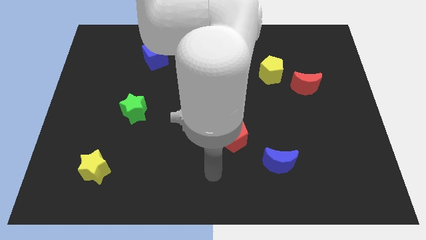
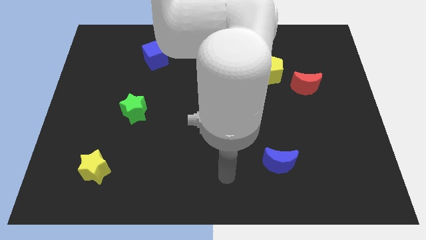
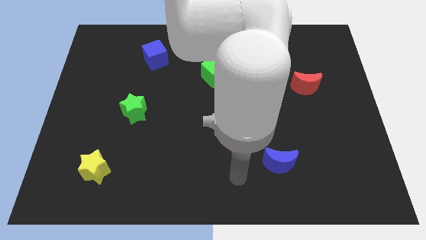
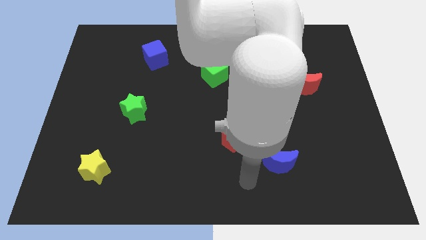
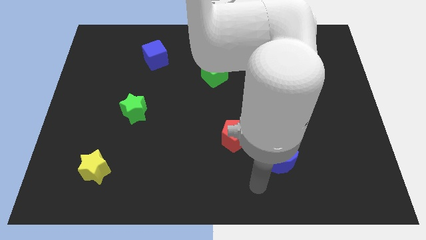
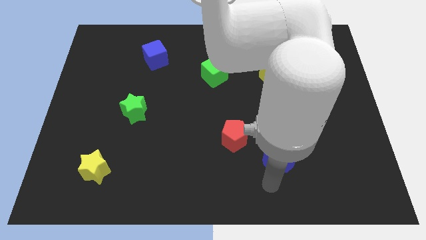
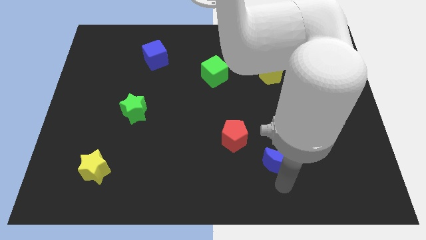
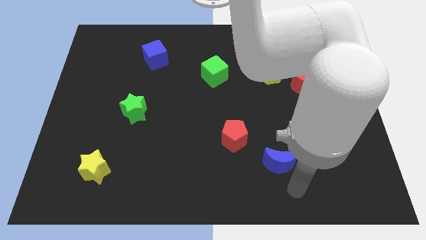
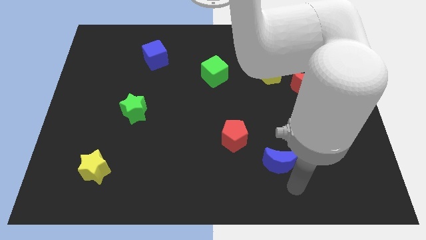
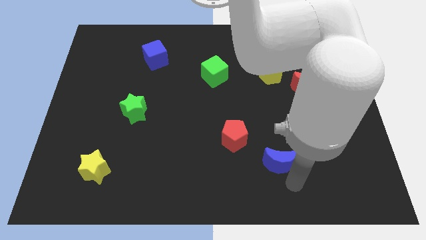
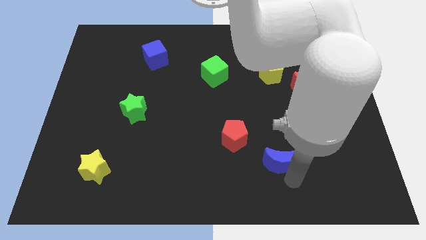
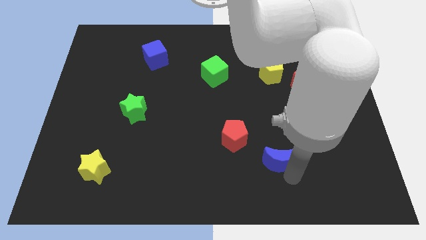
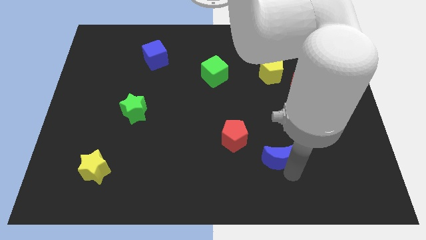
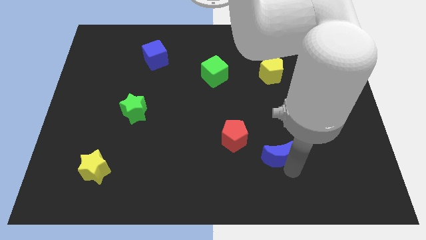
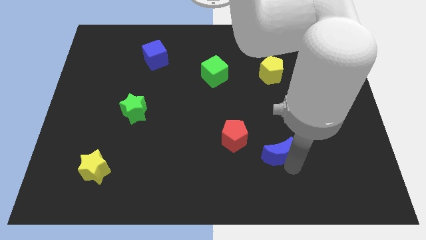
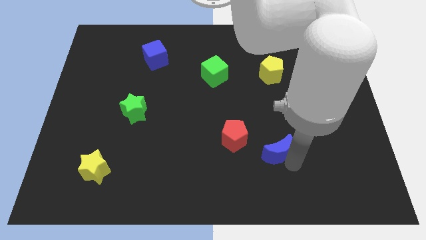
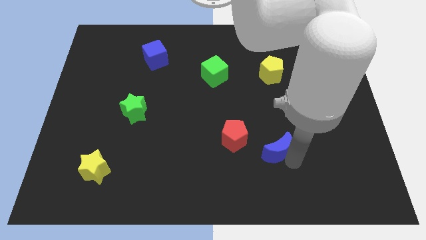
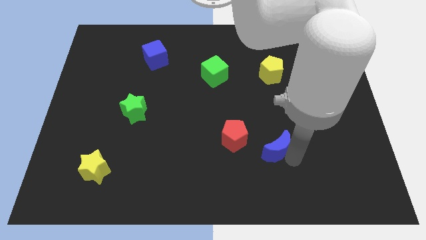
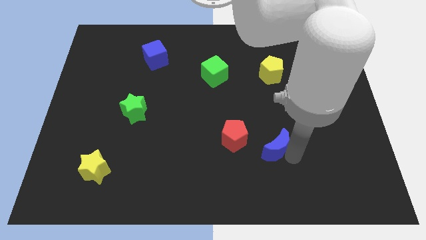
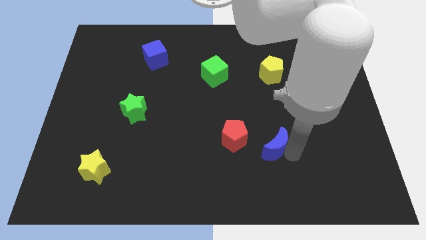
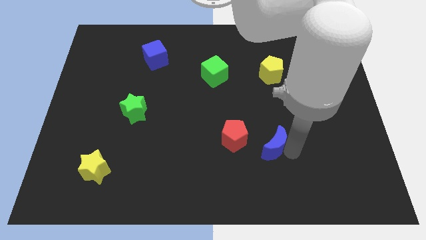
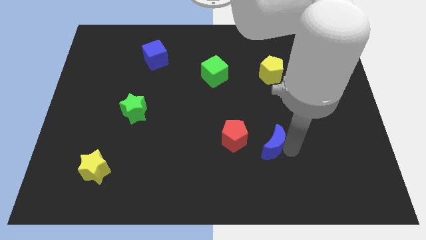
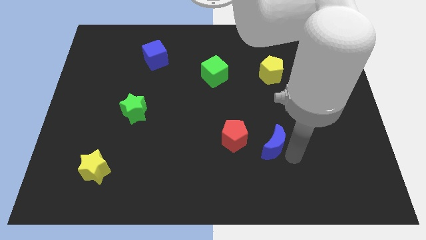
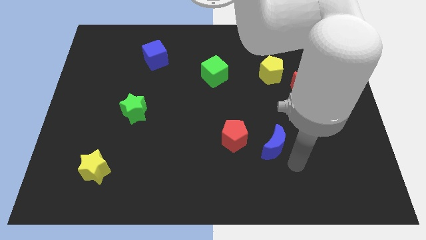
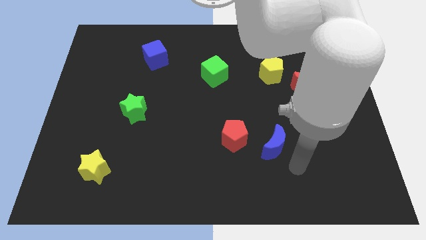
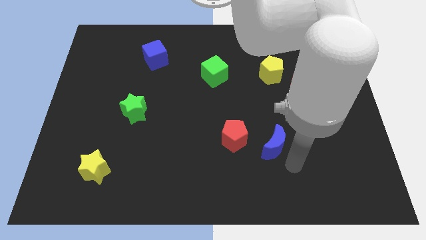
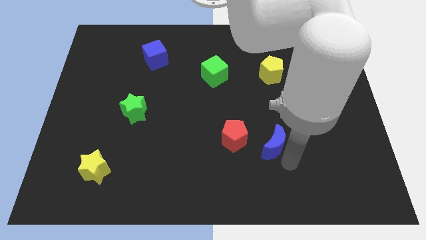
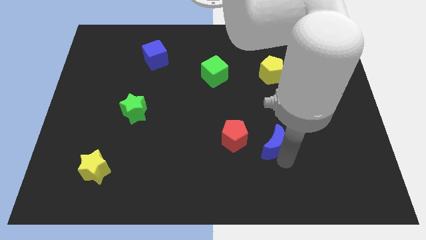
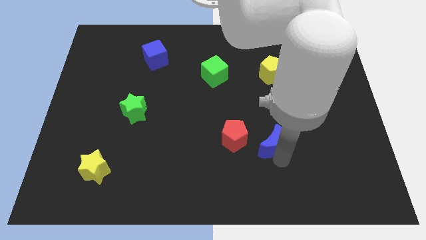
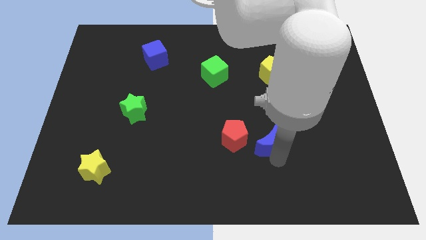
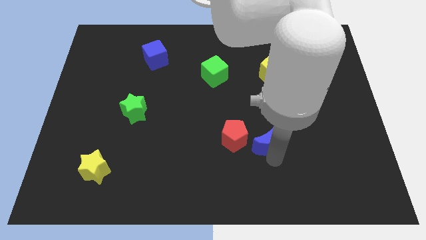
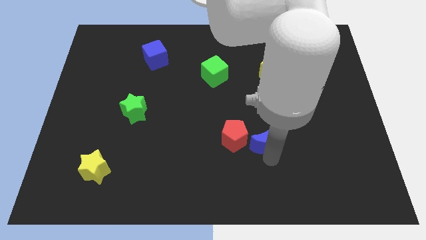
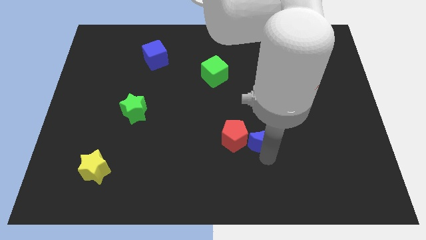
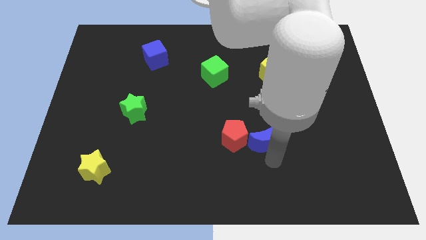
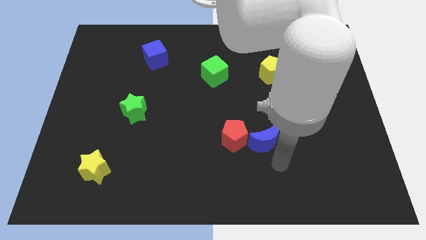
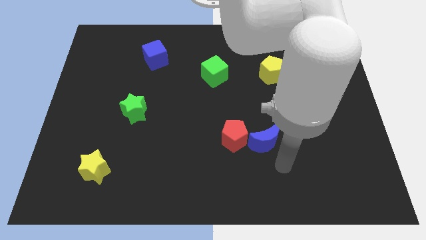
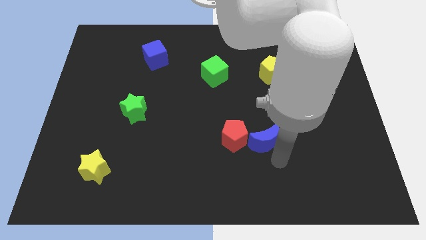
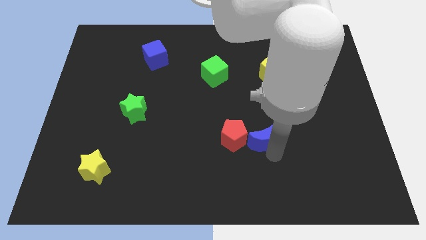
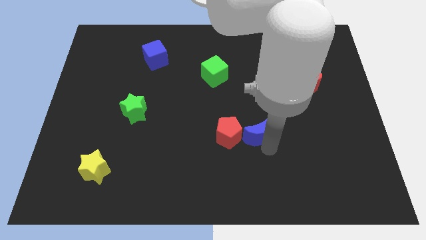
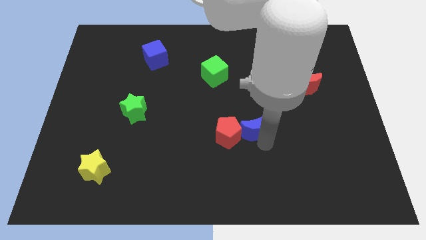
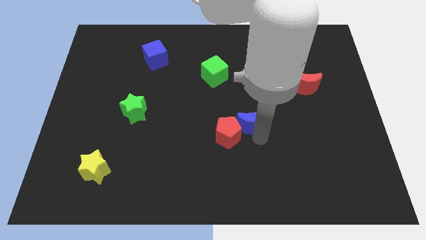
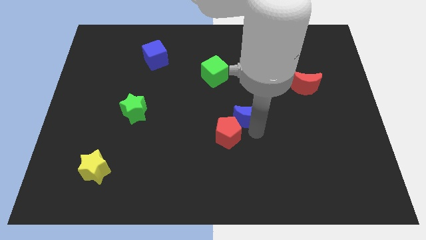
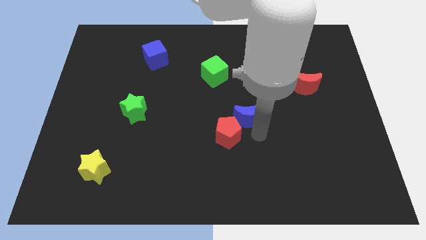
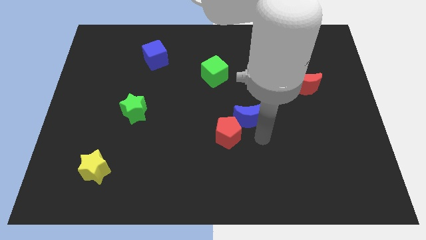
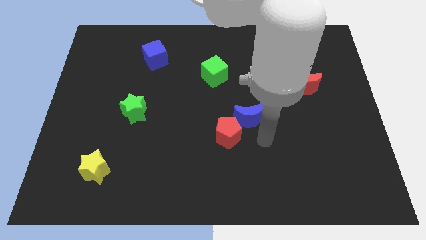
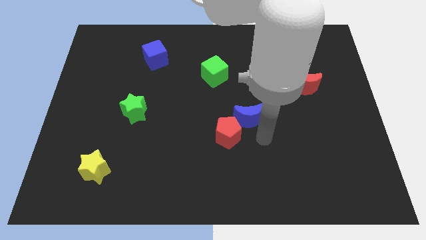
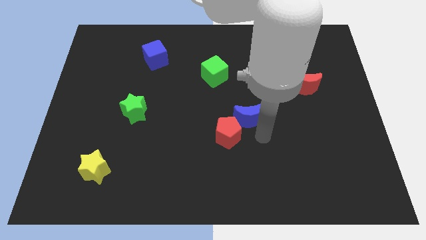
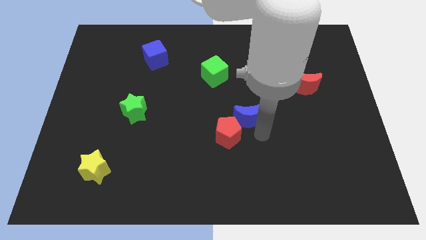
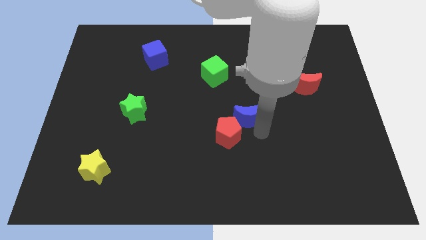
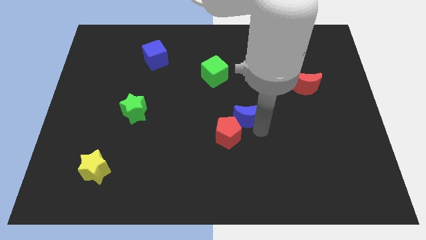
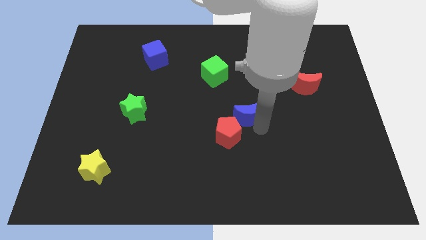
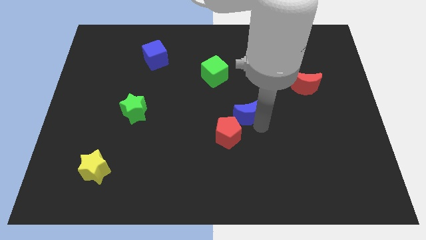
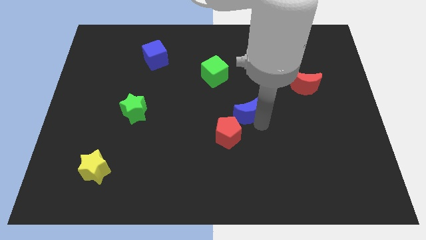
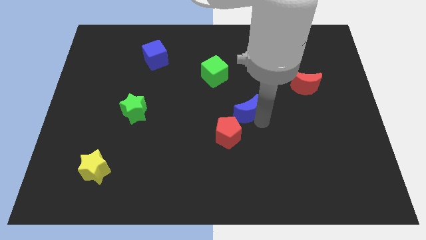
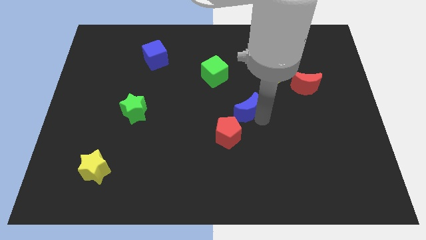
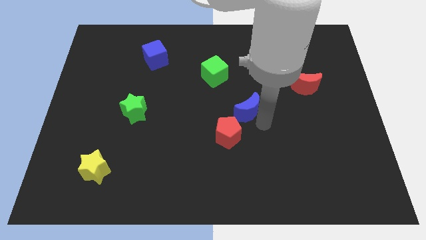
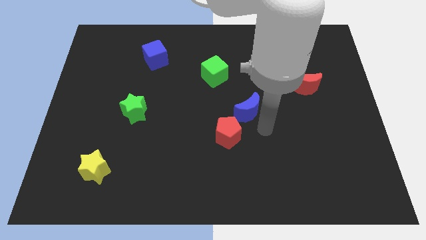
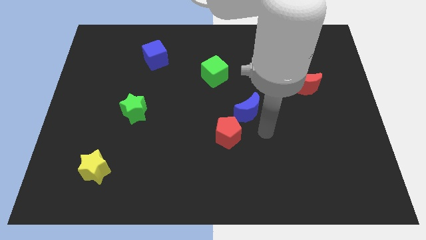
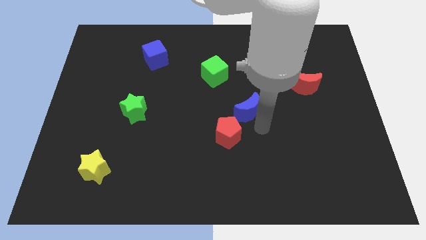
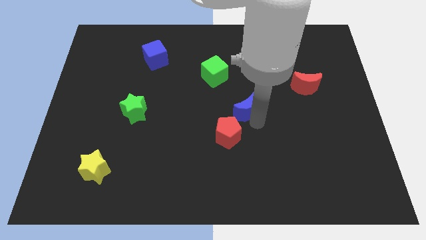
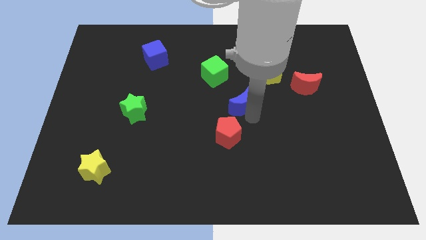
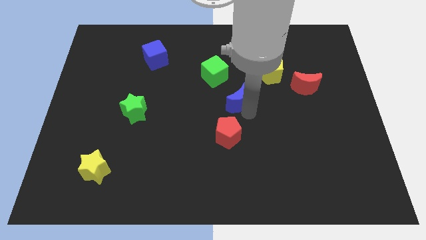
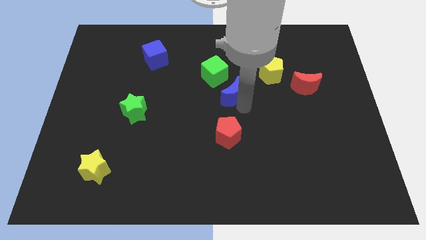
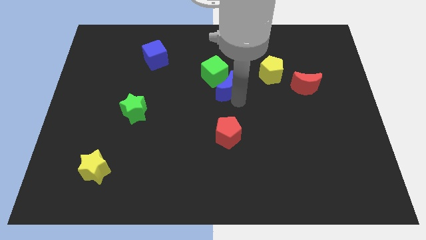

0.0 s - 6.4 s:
push the blue moon to the green cube

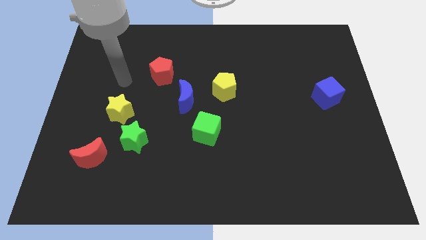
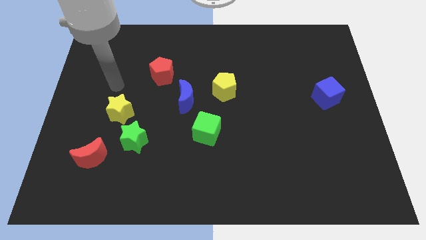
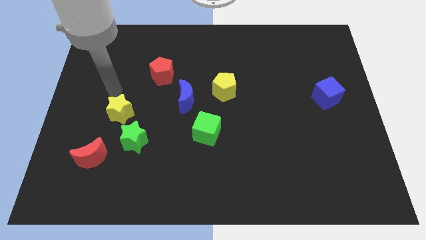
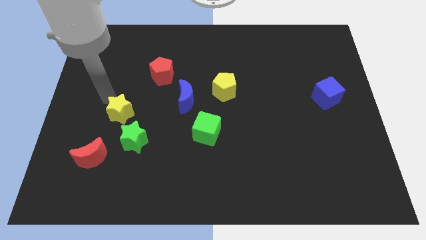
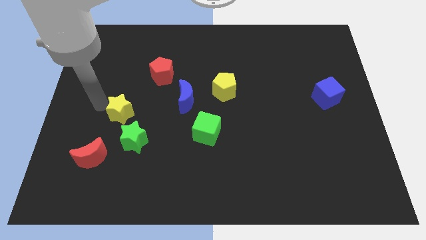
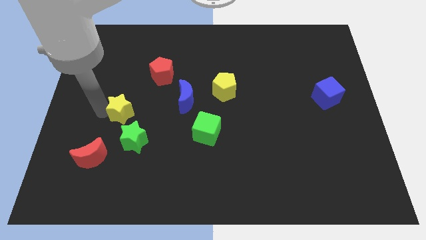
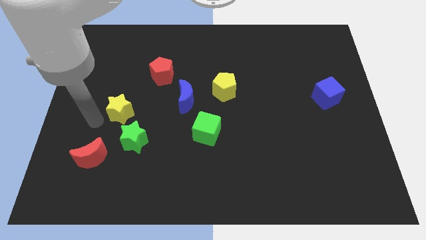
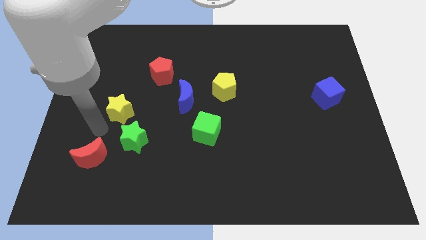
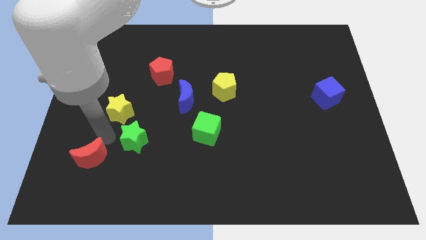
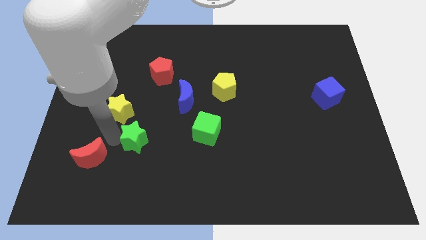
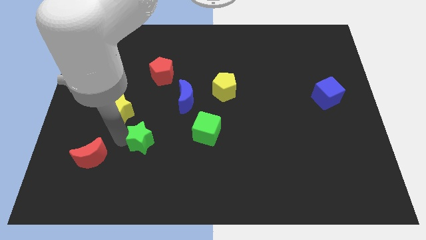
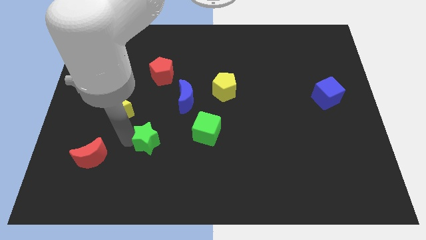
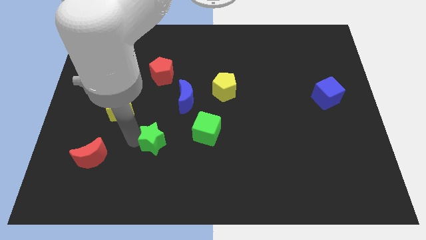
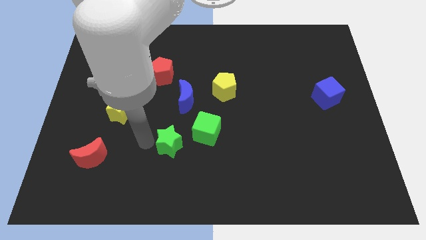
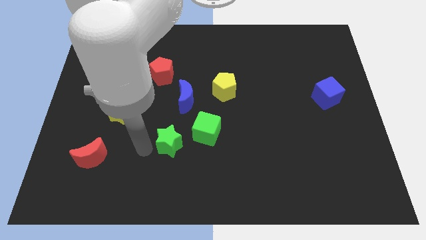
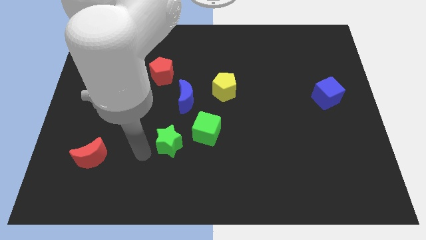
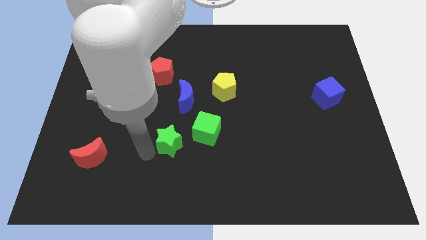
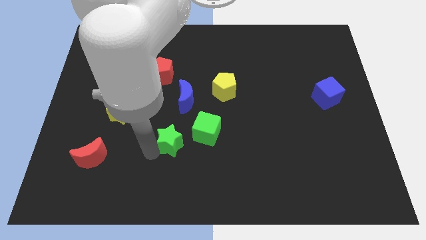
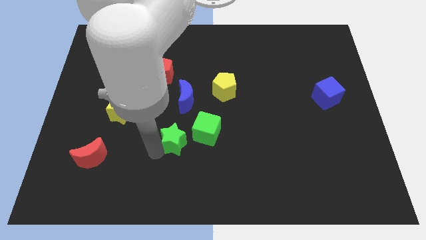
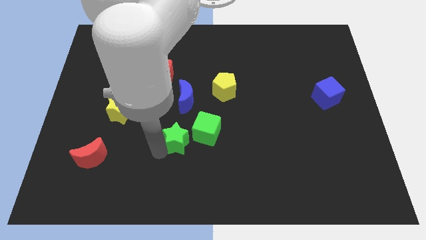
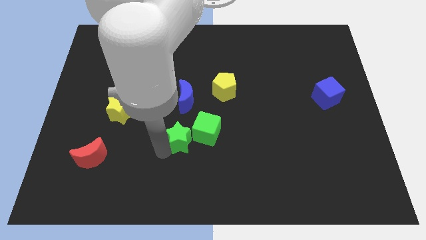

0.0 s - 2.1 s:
put the green star close to the green cube
